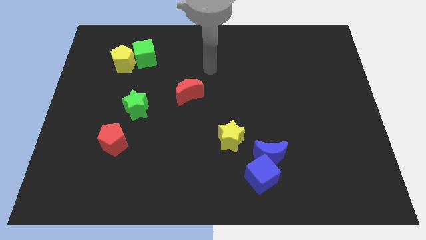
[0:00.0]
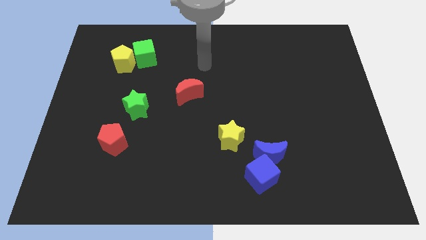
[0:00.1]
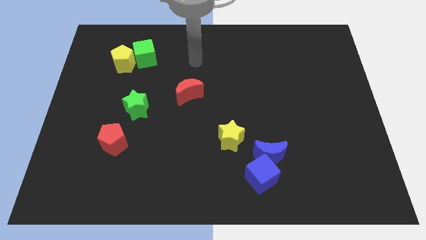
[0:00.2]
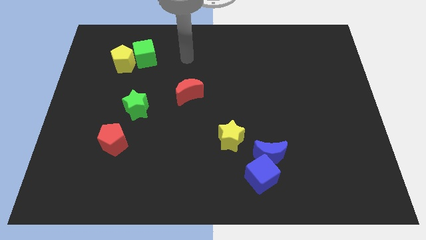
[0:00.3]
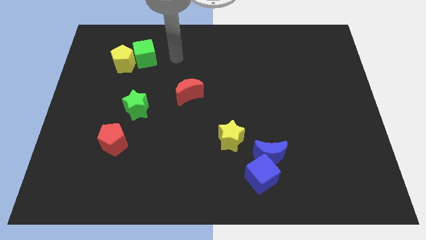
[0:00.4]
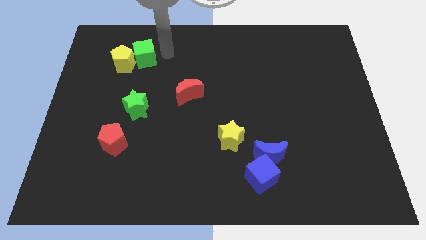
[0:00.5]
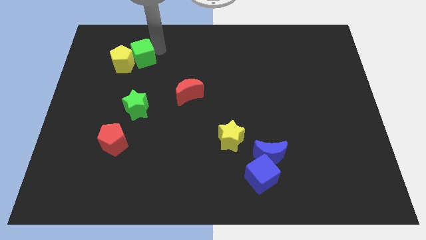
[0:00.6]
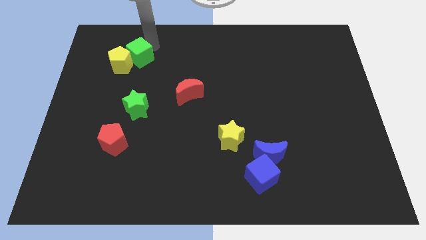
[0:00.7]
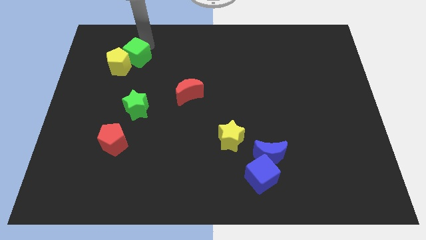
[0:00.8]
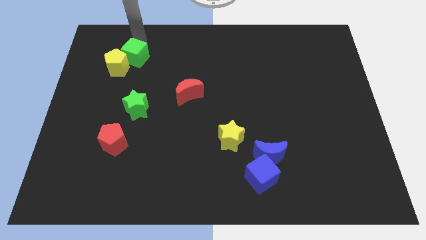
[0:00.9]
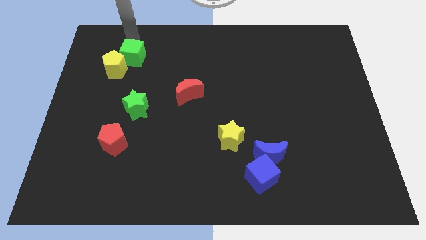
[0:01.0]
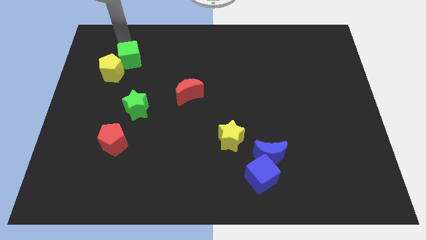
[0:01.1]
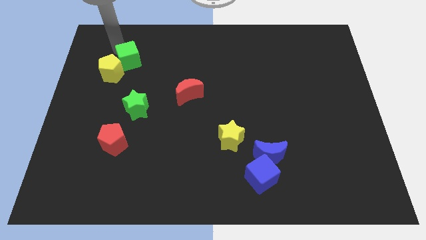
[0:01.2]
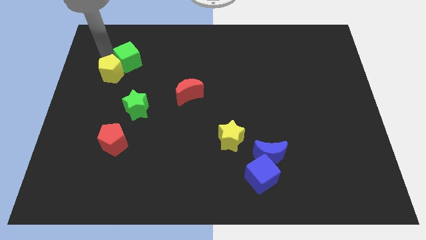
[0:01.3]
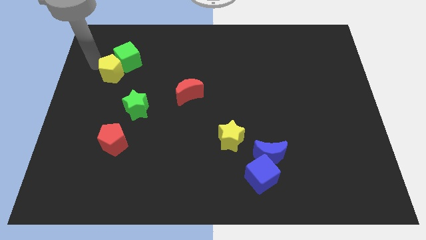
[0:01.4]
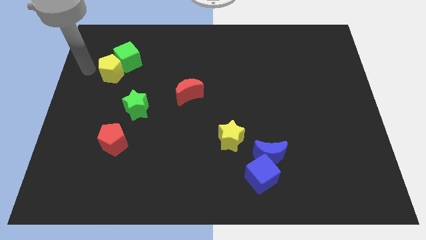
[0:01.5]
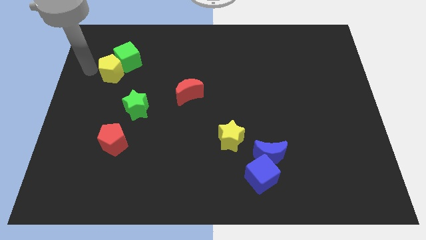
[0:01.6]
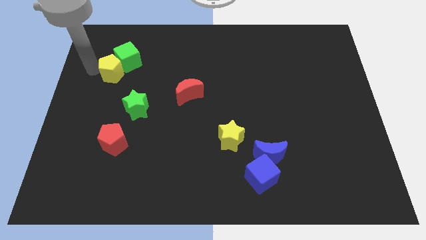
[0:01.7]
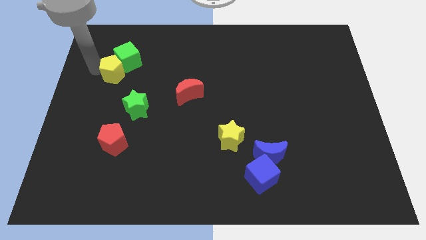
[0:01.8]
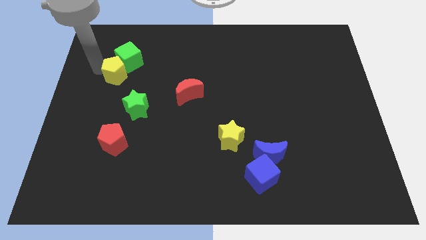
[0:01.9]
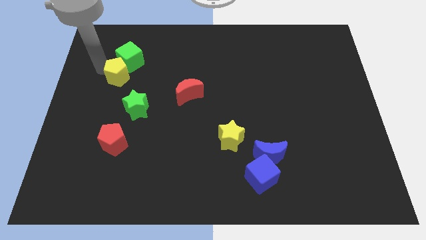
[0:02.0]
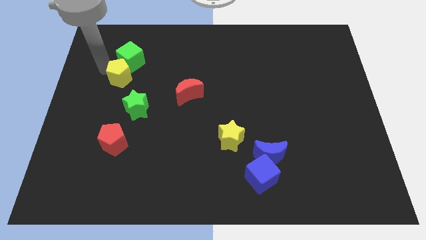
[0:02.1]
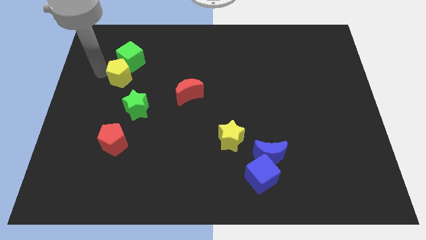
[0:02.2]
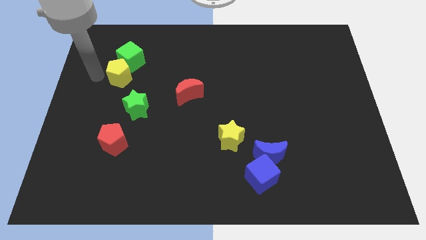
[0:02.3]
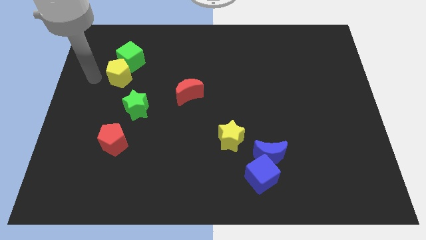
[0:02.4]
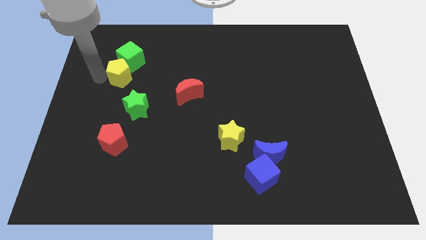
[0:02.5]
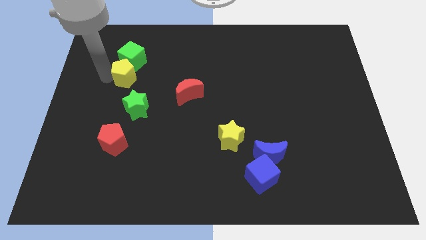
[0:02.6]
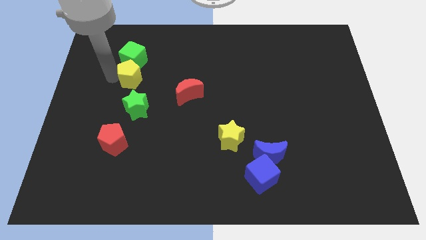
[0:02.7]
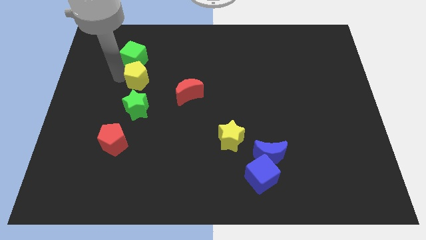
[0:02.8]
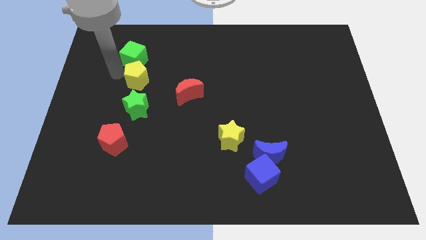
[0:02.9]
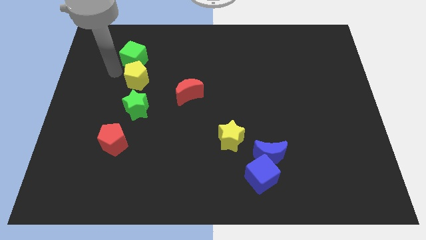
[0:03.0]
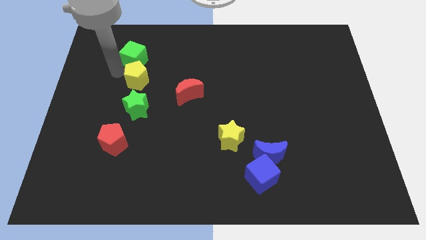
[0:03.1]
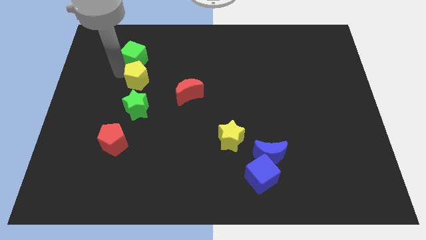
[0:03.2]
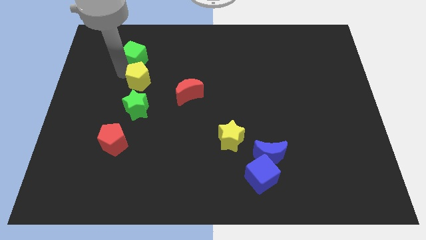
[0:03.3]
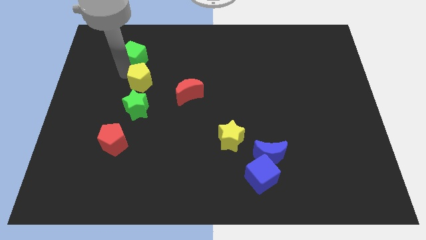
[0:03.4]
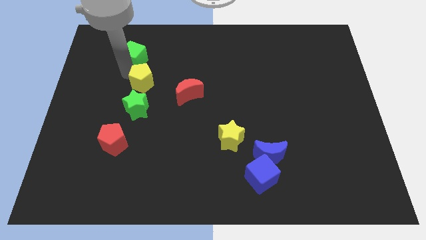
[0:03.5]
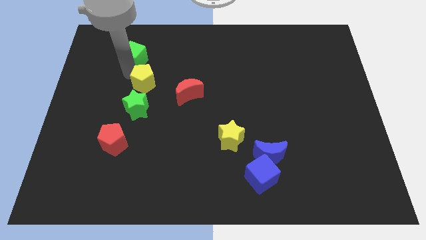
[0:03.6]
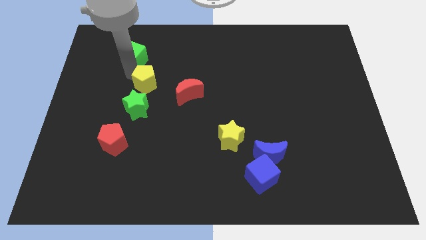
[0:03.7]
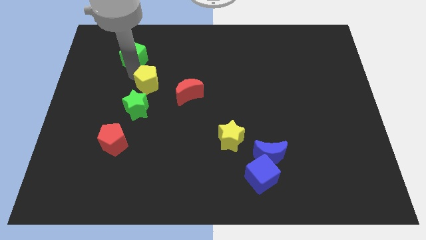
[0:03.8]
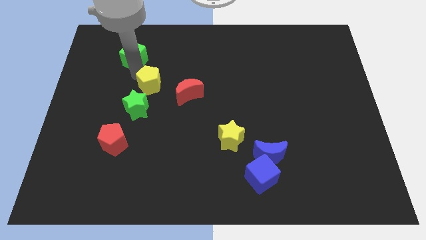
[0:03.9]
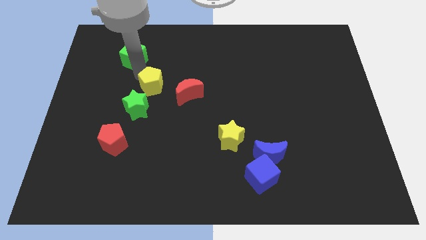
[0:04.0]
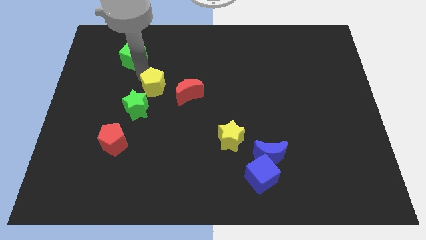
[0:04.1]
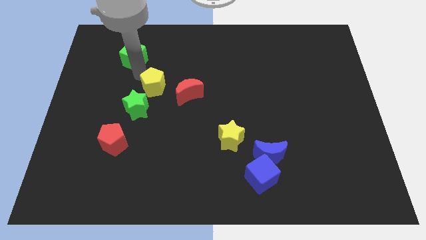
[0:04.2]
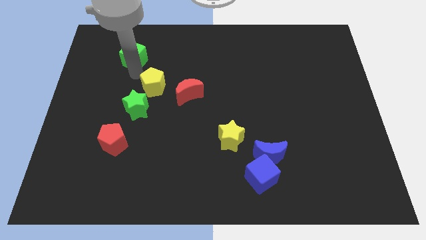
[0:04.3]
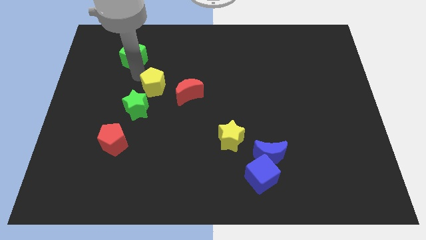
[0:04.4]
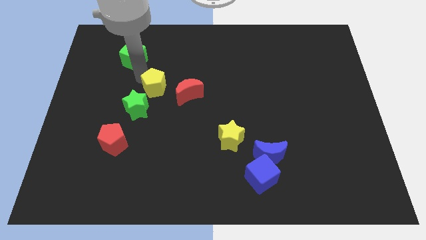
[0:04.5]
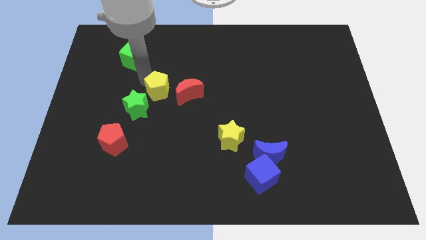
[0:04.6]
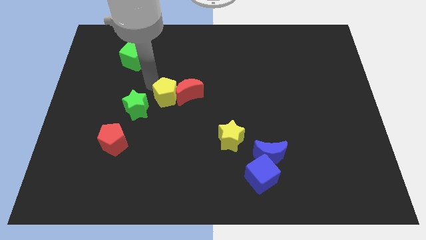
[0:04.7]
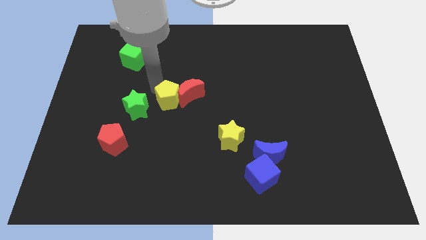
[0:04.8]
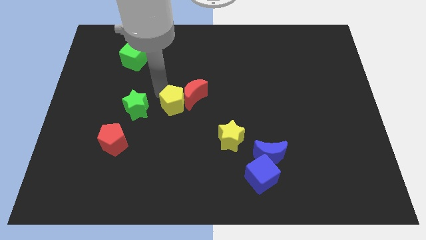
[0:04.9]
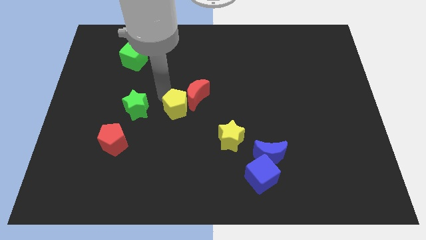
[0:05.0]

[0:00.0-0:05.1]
slide the yellow pentagon downwards and then to the right

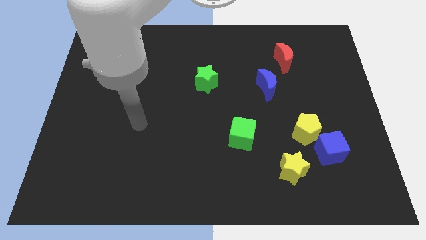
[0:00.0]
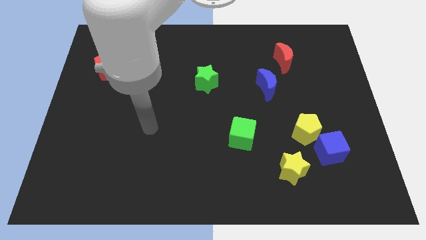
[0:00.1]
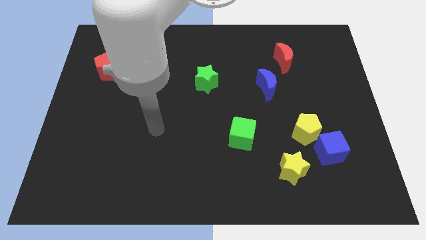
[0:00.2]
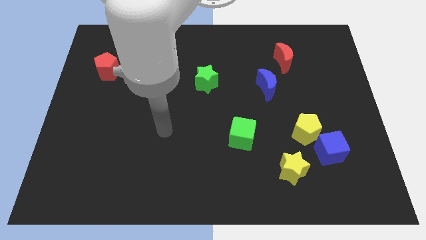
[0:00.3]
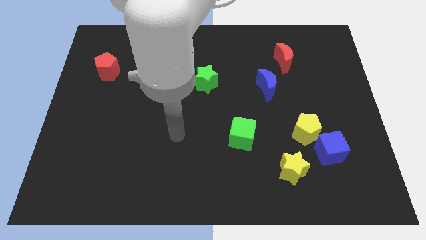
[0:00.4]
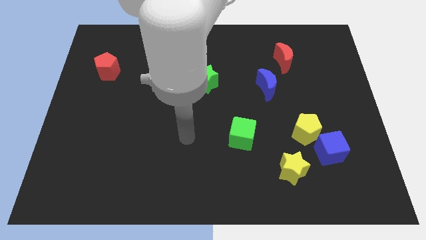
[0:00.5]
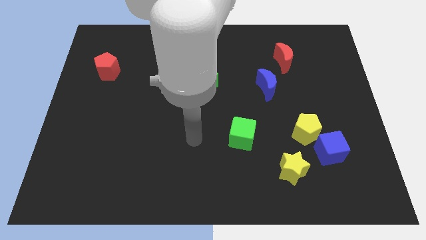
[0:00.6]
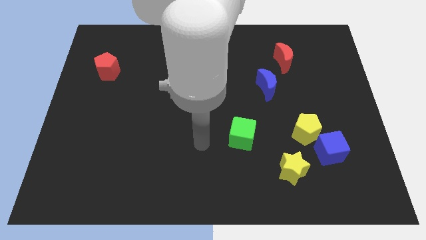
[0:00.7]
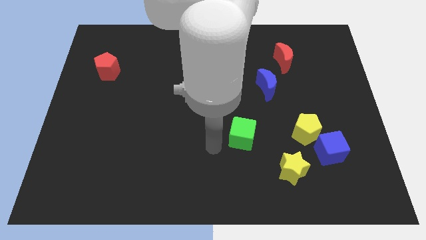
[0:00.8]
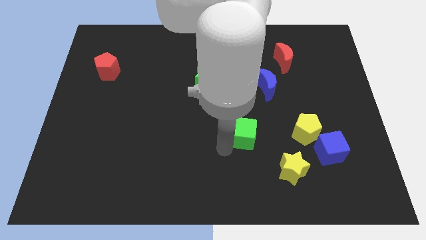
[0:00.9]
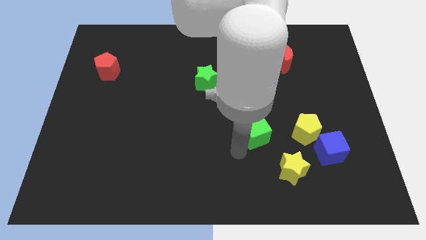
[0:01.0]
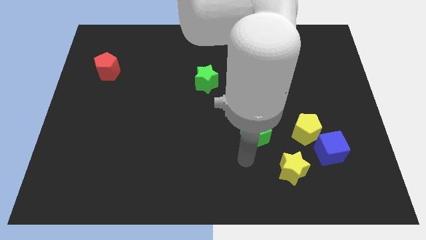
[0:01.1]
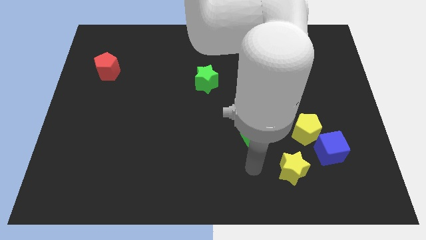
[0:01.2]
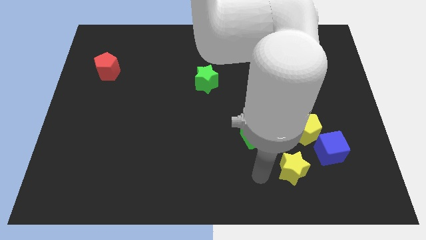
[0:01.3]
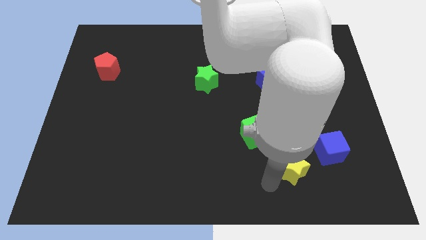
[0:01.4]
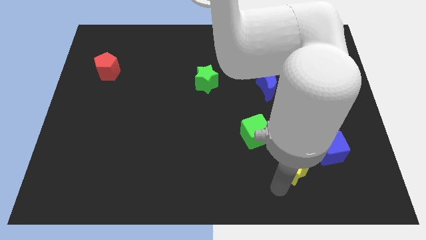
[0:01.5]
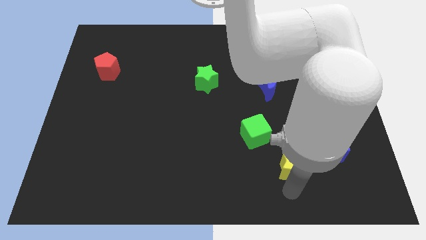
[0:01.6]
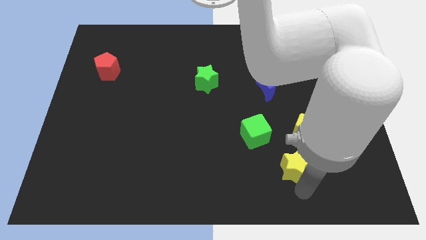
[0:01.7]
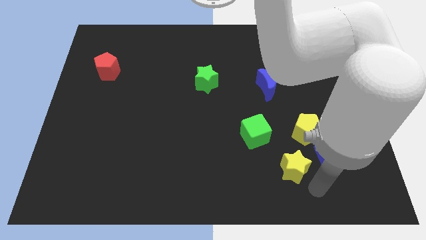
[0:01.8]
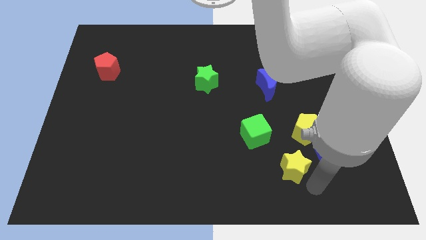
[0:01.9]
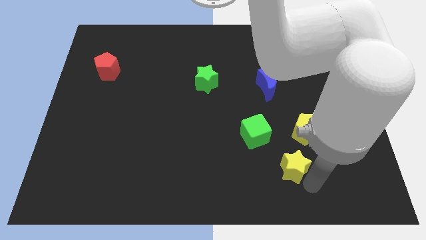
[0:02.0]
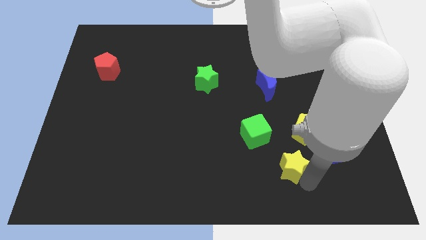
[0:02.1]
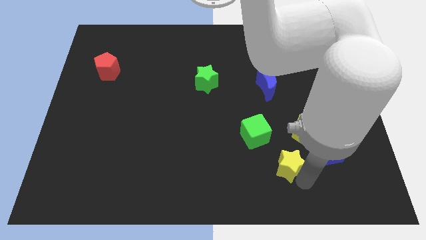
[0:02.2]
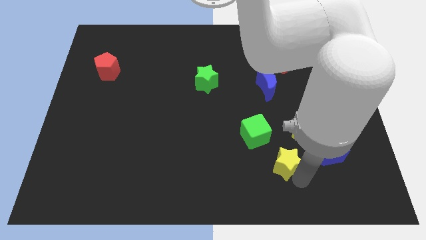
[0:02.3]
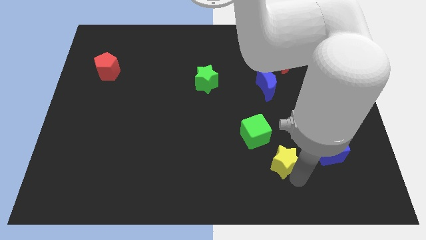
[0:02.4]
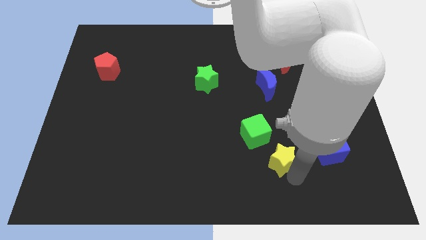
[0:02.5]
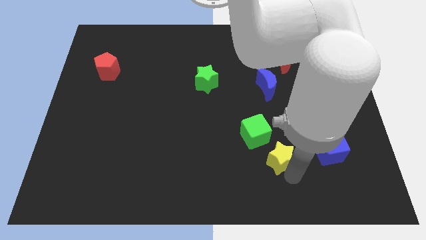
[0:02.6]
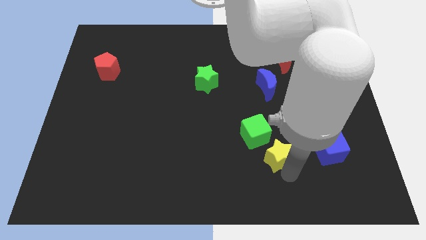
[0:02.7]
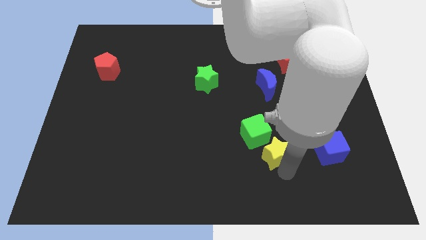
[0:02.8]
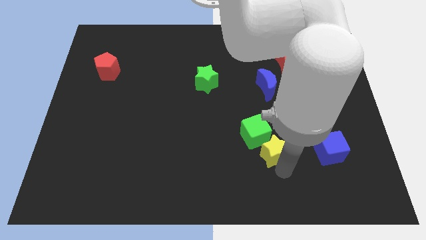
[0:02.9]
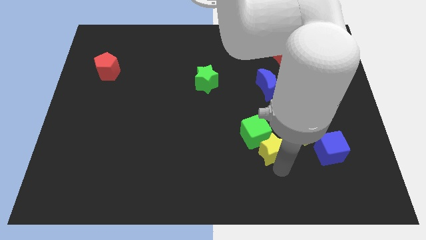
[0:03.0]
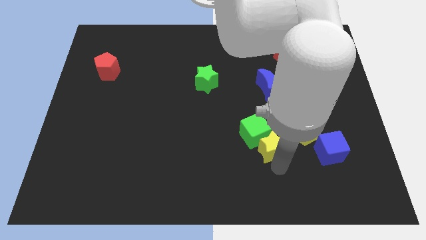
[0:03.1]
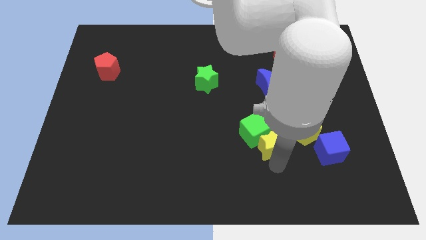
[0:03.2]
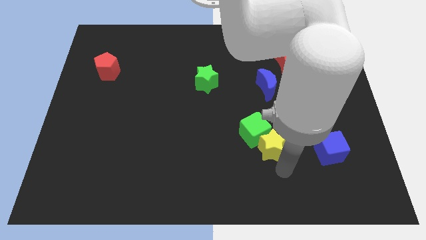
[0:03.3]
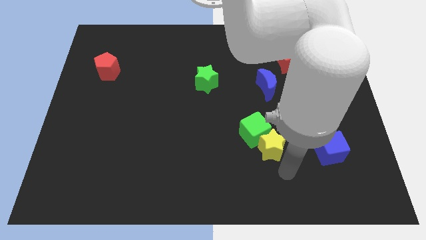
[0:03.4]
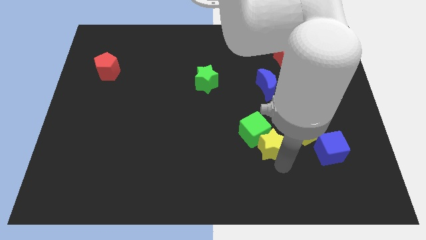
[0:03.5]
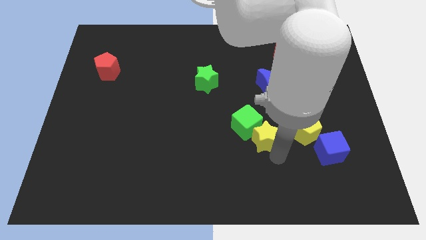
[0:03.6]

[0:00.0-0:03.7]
move the yellow star a little bit up and left diagonally
